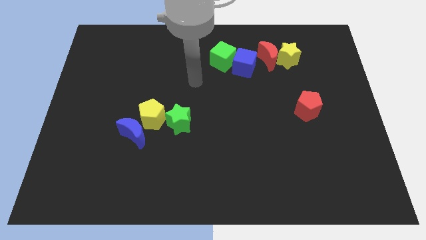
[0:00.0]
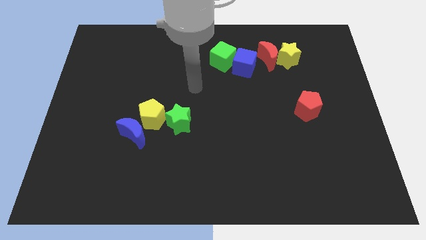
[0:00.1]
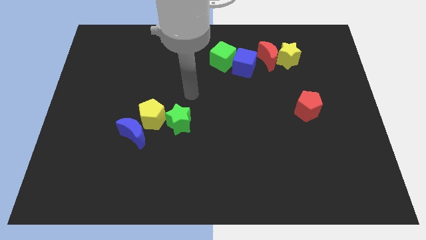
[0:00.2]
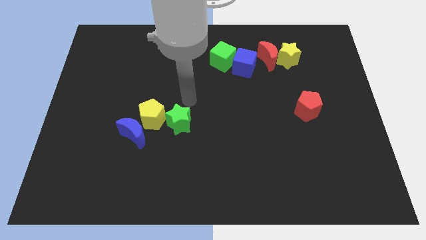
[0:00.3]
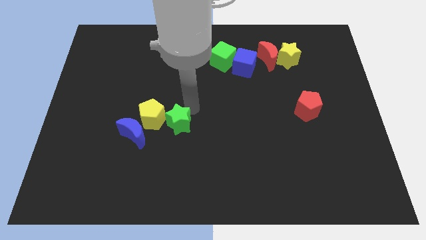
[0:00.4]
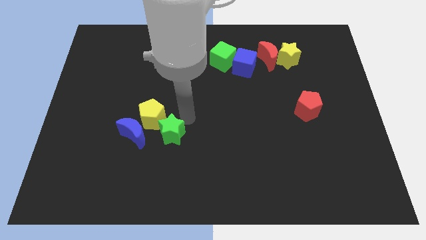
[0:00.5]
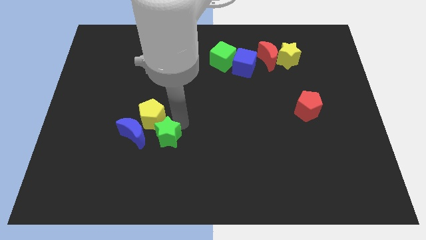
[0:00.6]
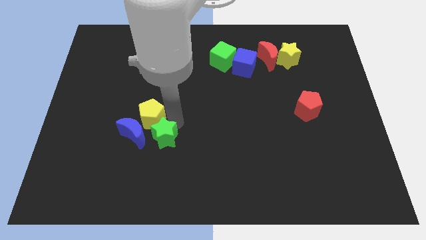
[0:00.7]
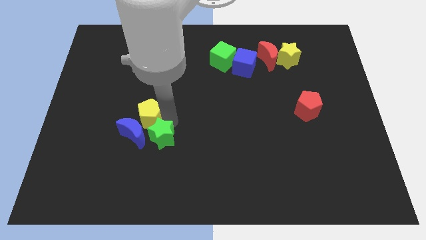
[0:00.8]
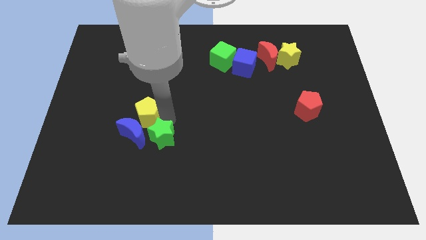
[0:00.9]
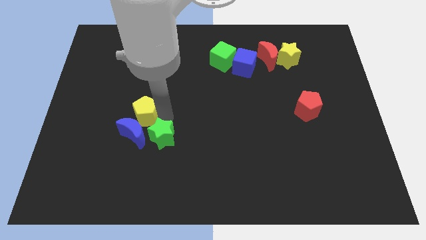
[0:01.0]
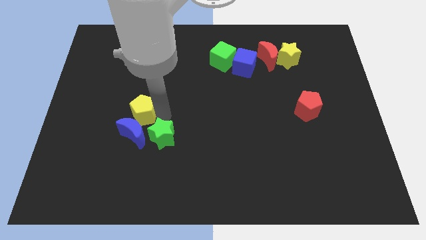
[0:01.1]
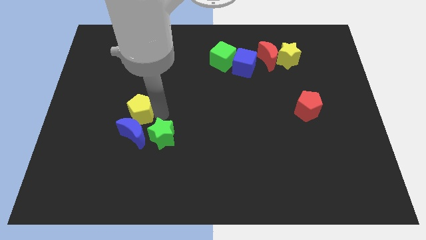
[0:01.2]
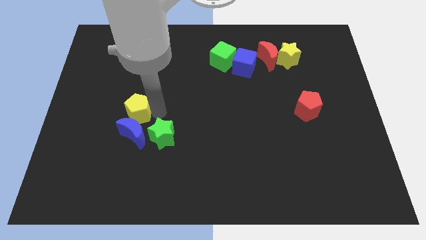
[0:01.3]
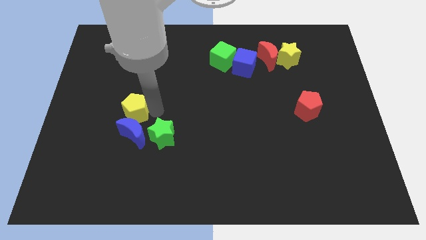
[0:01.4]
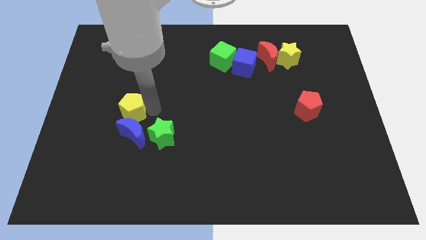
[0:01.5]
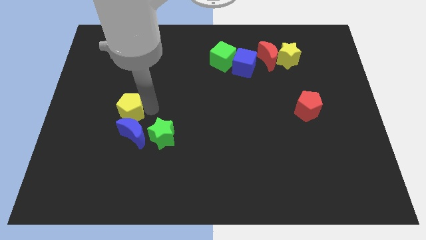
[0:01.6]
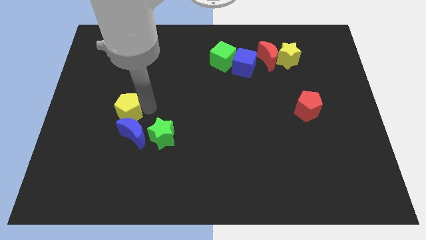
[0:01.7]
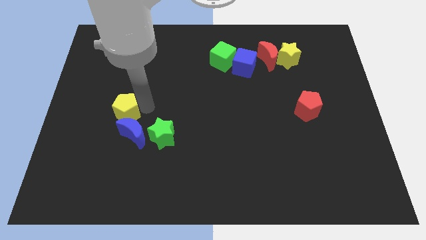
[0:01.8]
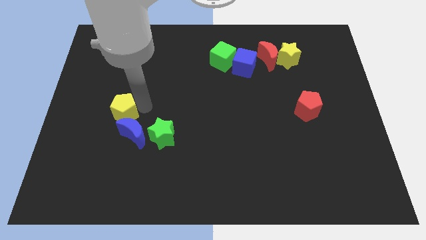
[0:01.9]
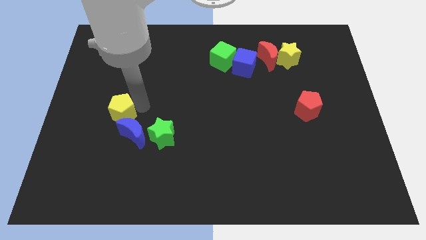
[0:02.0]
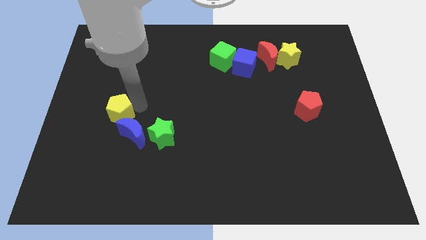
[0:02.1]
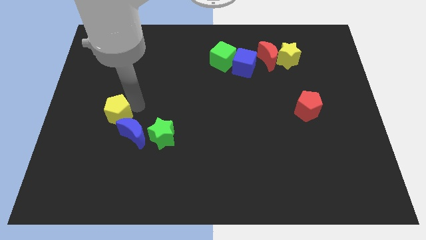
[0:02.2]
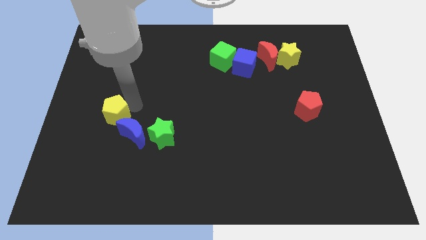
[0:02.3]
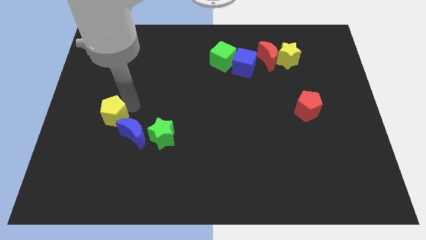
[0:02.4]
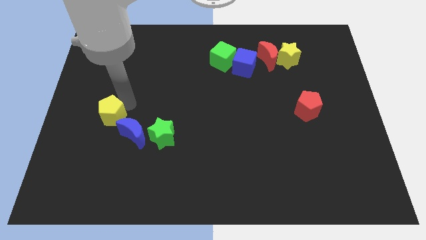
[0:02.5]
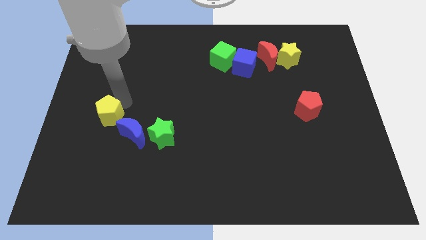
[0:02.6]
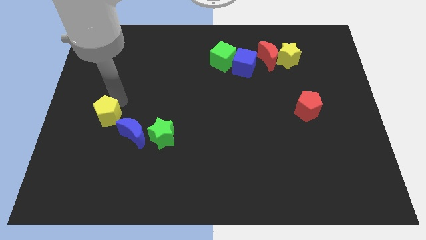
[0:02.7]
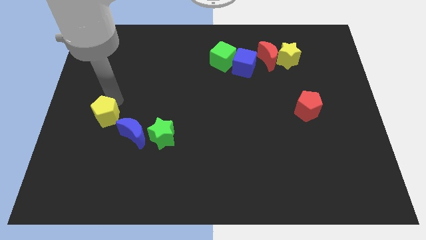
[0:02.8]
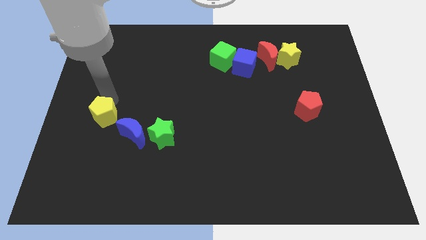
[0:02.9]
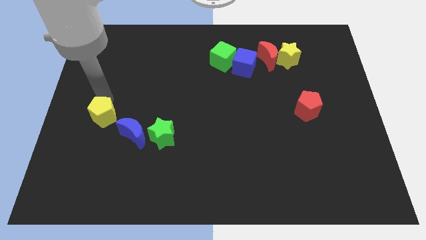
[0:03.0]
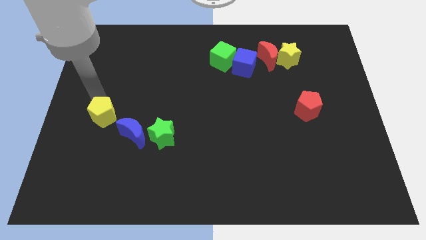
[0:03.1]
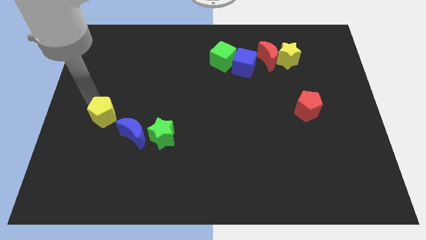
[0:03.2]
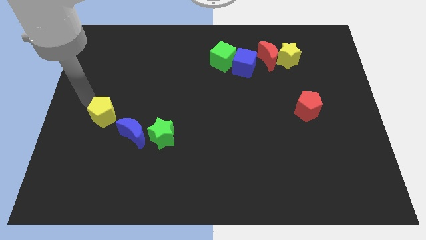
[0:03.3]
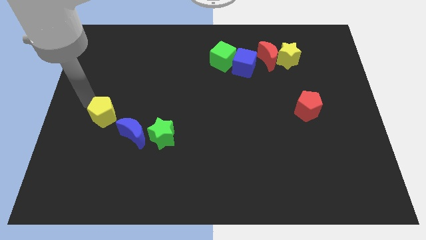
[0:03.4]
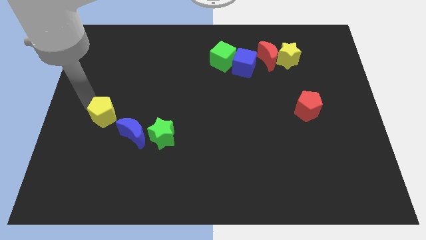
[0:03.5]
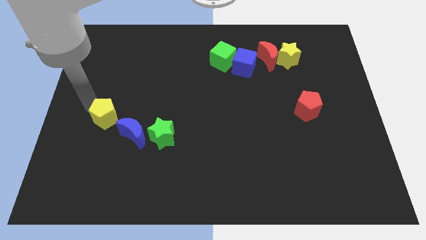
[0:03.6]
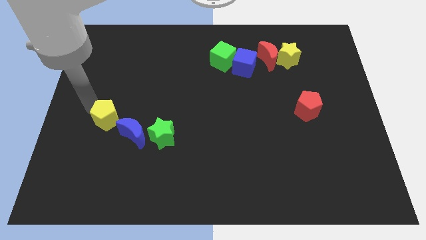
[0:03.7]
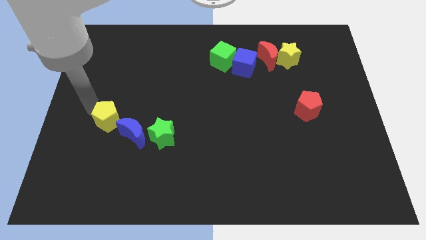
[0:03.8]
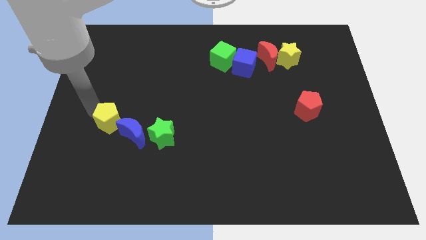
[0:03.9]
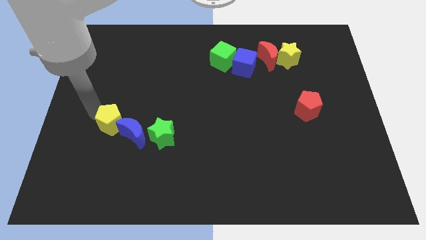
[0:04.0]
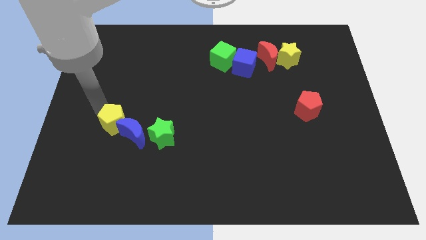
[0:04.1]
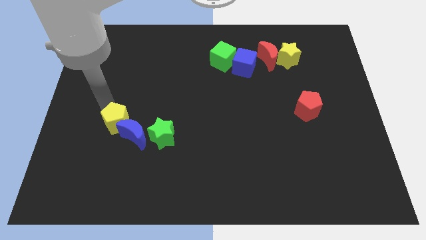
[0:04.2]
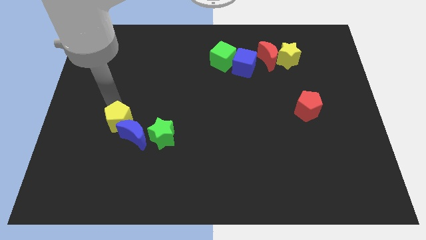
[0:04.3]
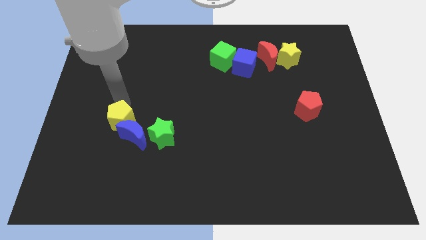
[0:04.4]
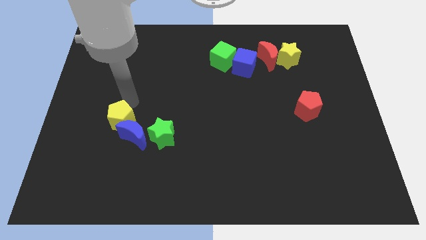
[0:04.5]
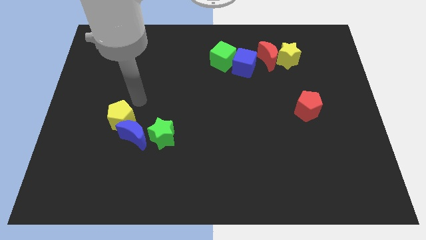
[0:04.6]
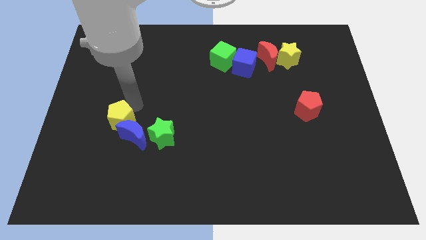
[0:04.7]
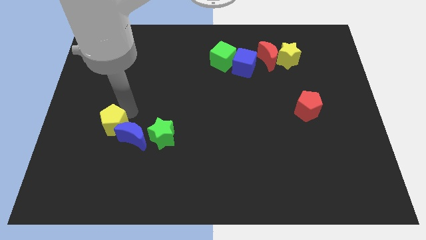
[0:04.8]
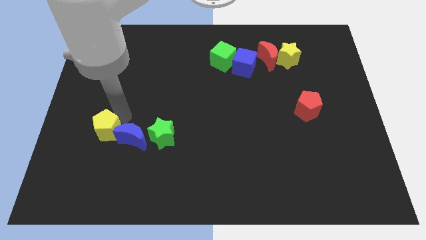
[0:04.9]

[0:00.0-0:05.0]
slightly move the yellow pentagon downwards and left diagonally

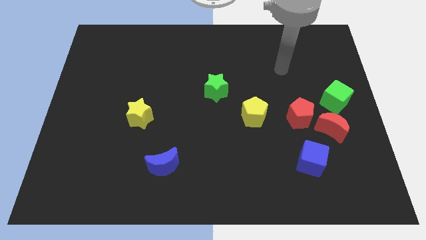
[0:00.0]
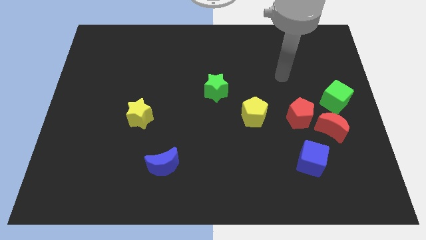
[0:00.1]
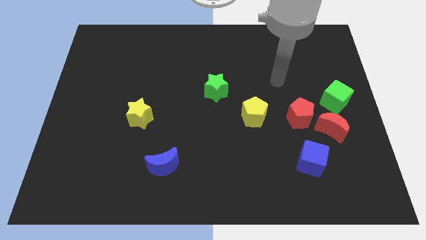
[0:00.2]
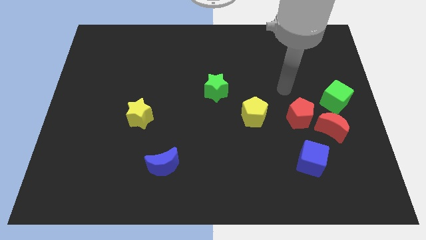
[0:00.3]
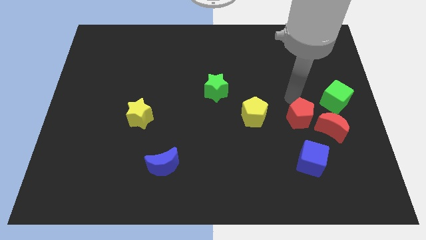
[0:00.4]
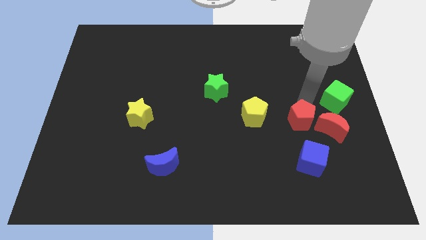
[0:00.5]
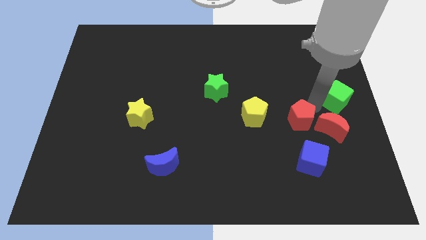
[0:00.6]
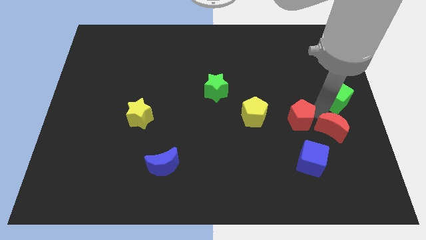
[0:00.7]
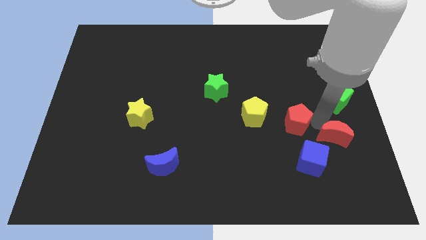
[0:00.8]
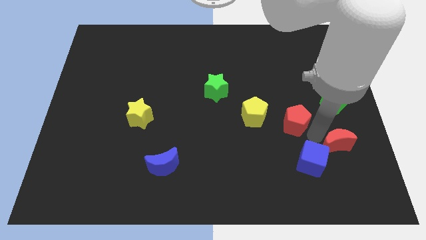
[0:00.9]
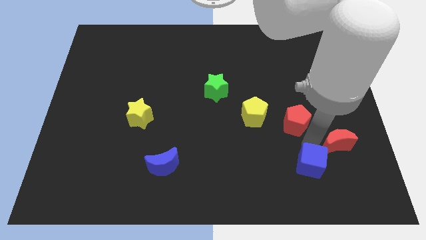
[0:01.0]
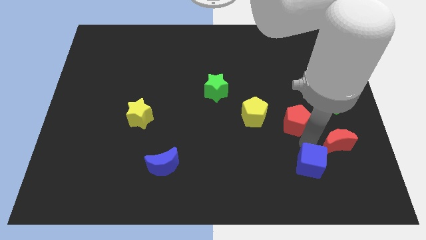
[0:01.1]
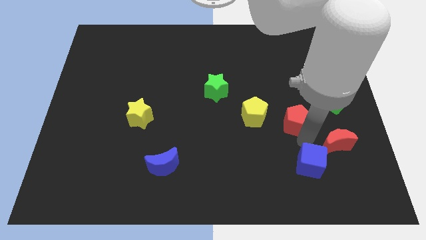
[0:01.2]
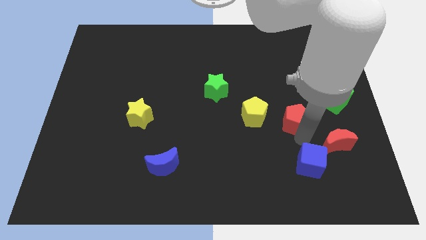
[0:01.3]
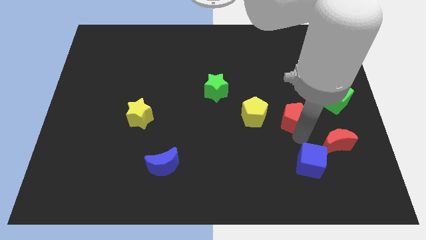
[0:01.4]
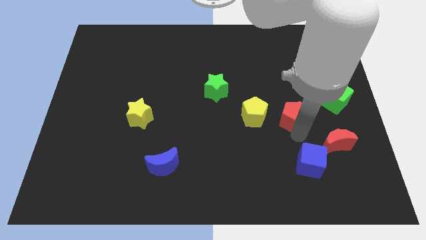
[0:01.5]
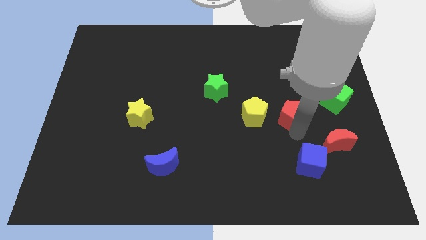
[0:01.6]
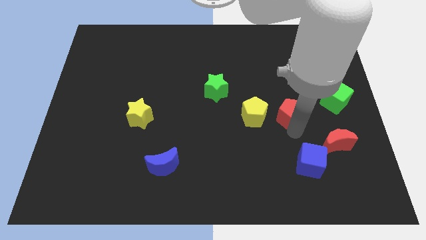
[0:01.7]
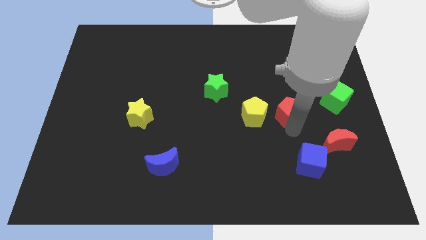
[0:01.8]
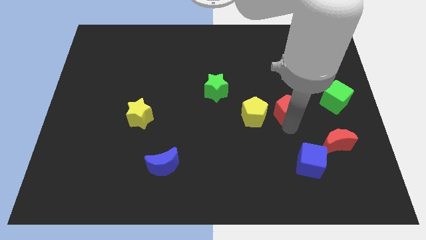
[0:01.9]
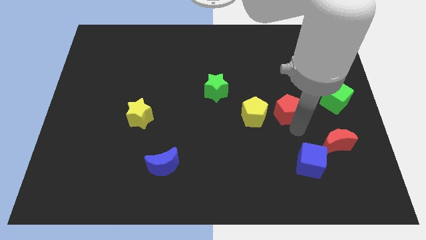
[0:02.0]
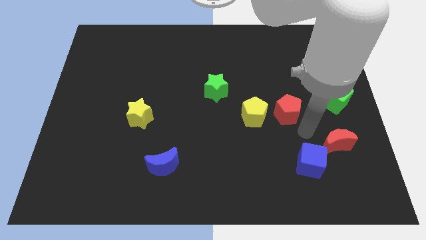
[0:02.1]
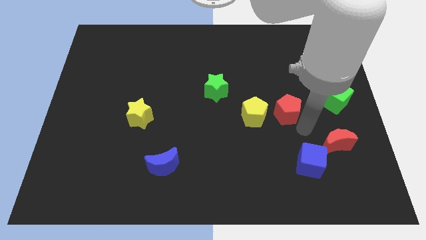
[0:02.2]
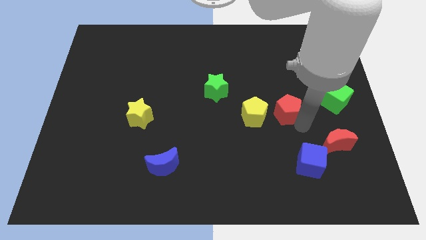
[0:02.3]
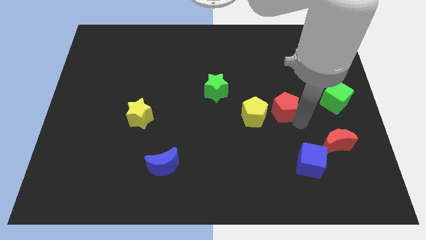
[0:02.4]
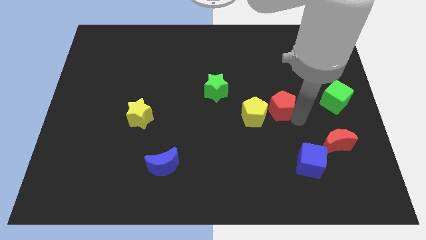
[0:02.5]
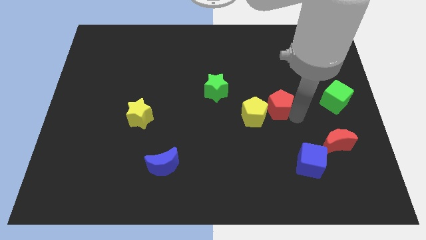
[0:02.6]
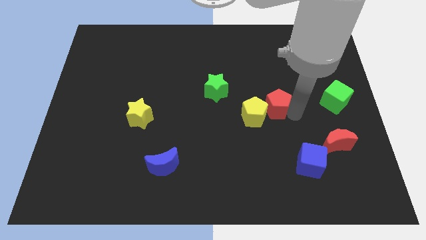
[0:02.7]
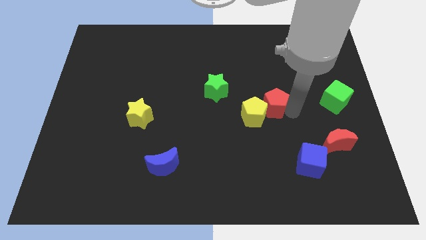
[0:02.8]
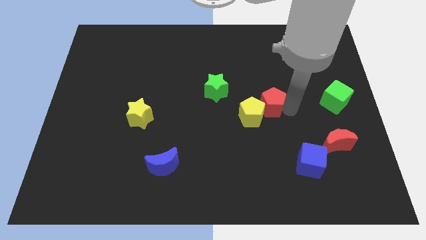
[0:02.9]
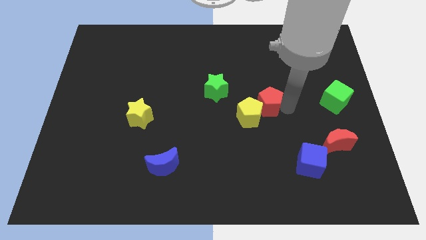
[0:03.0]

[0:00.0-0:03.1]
move the red pentagon a little bit upwards and to the left
